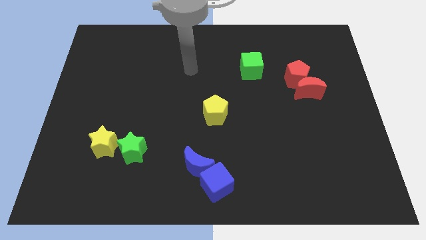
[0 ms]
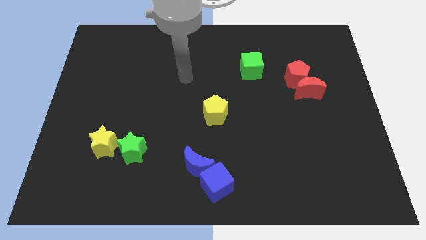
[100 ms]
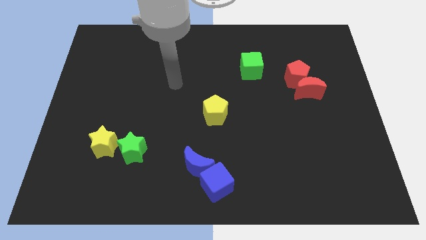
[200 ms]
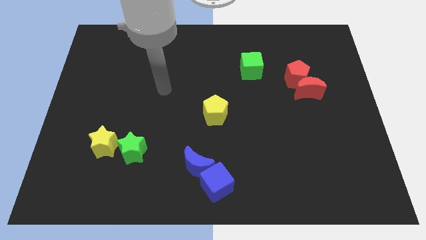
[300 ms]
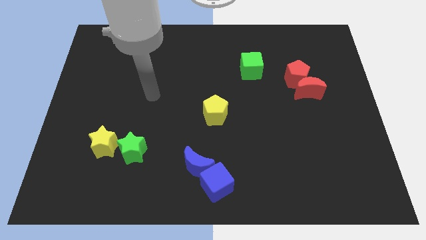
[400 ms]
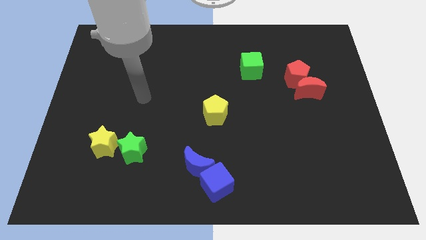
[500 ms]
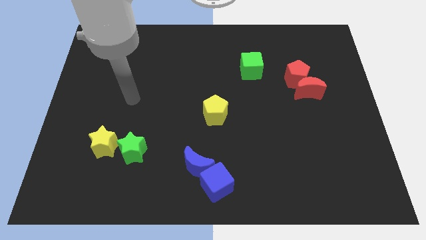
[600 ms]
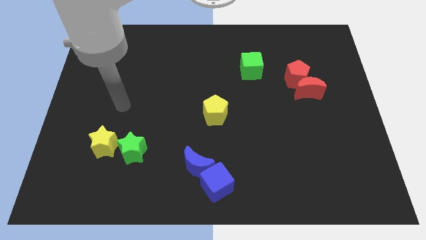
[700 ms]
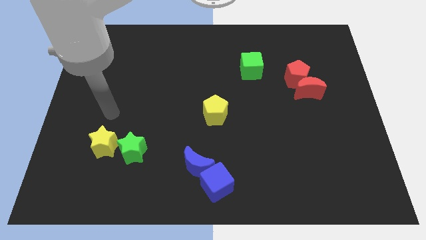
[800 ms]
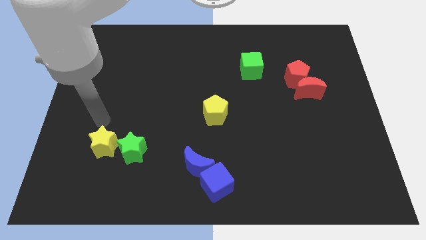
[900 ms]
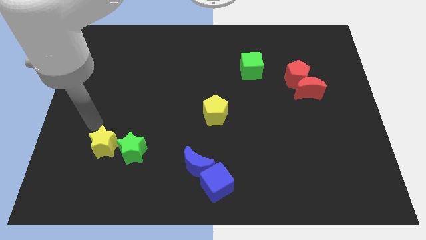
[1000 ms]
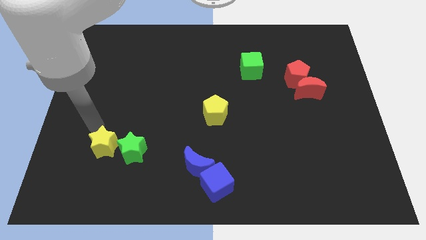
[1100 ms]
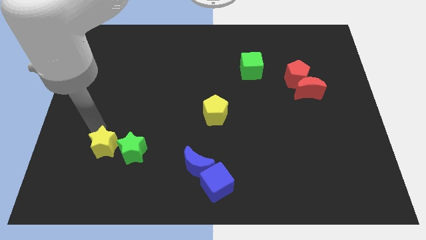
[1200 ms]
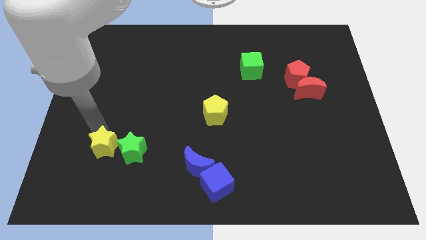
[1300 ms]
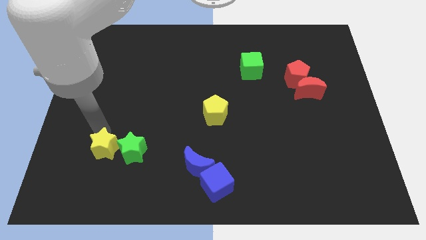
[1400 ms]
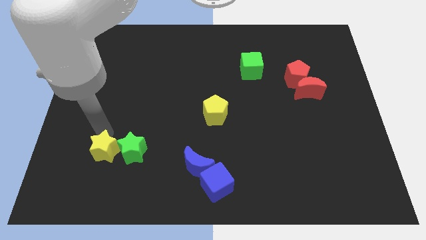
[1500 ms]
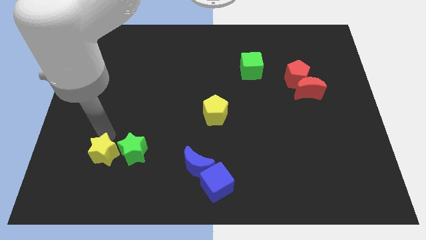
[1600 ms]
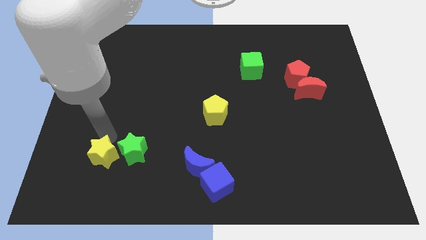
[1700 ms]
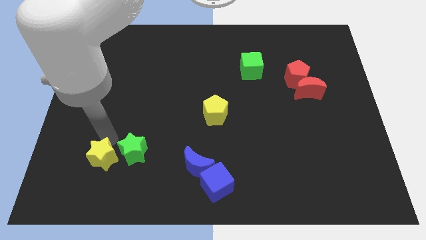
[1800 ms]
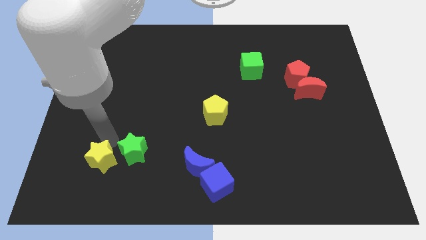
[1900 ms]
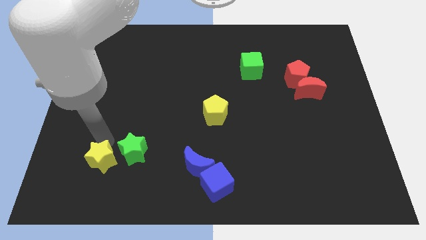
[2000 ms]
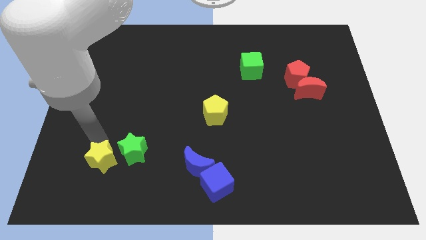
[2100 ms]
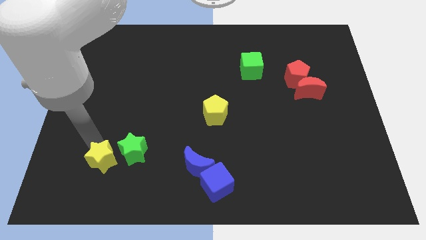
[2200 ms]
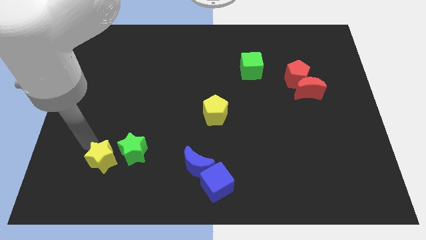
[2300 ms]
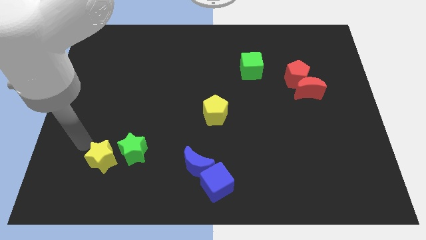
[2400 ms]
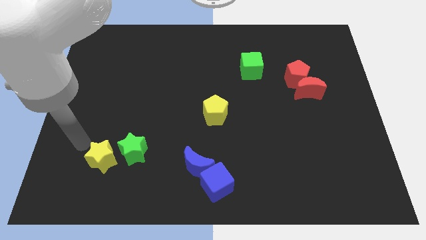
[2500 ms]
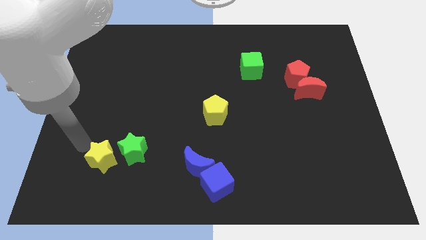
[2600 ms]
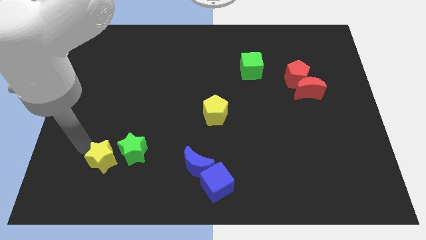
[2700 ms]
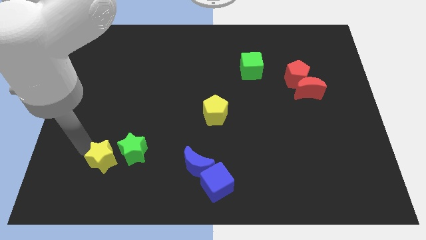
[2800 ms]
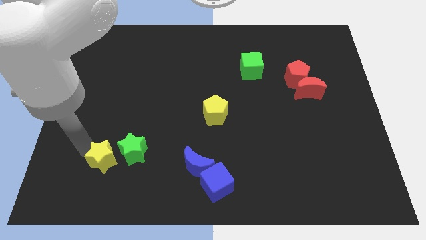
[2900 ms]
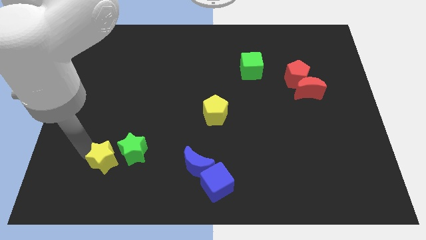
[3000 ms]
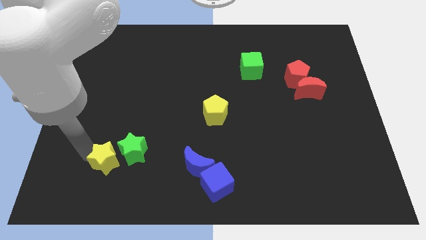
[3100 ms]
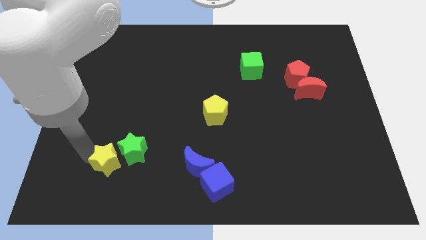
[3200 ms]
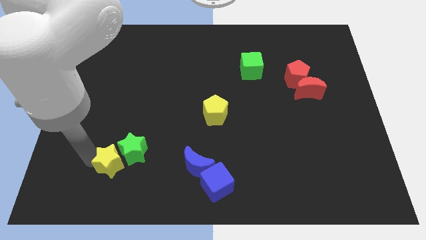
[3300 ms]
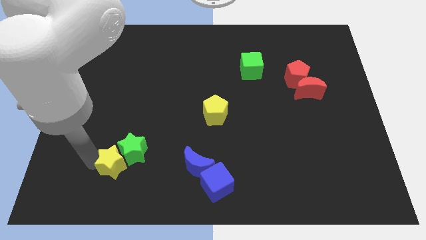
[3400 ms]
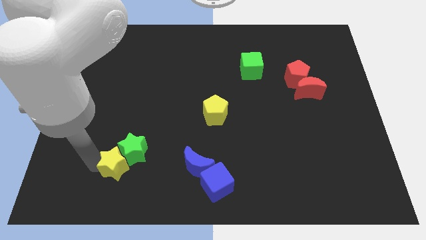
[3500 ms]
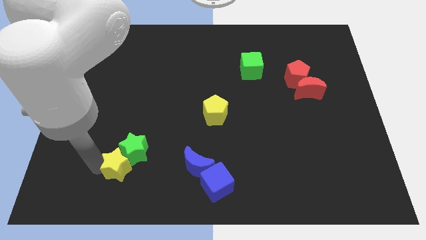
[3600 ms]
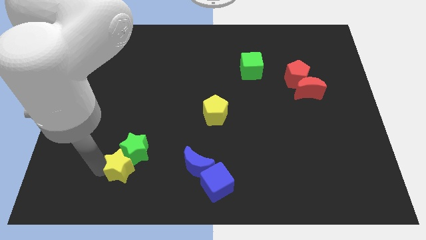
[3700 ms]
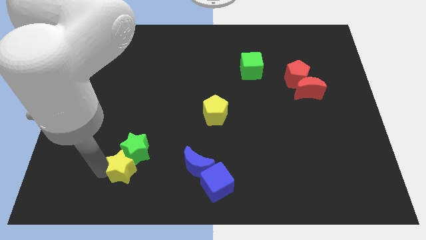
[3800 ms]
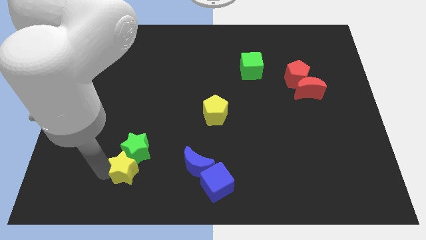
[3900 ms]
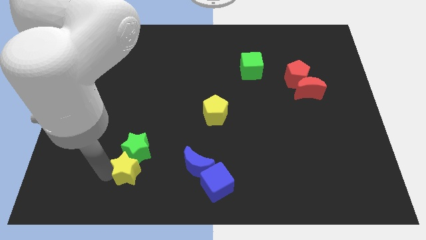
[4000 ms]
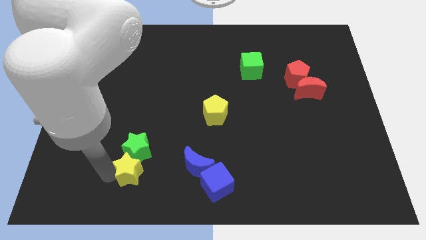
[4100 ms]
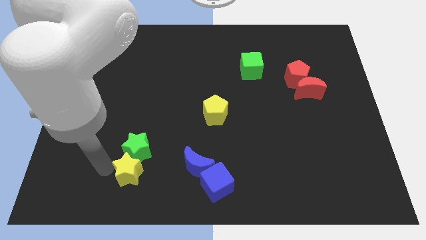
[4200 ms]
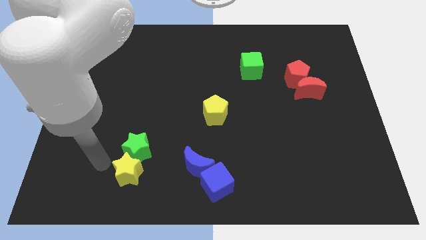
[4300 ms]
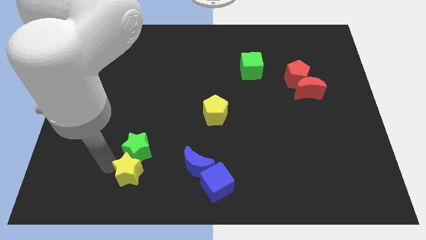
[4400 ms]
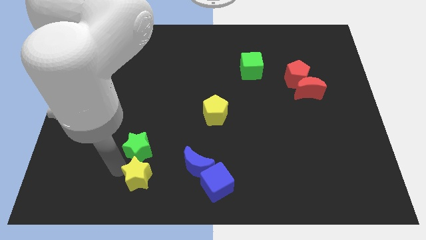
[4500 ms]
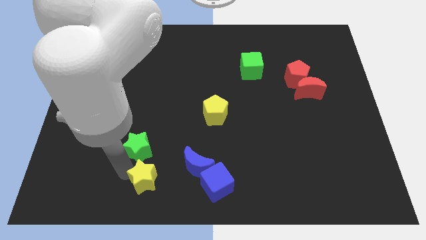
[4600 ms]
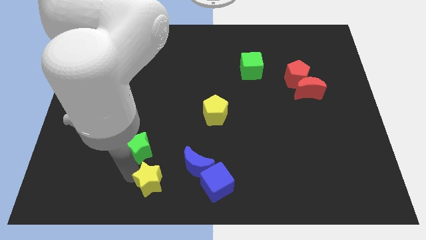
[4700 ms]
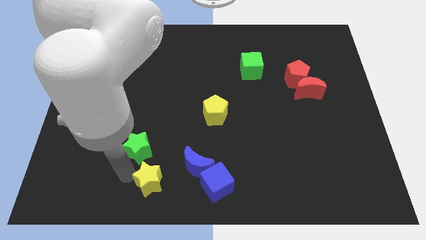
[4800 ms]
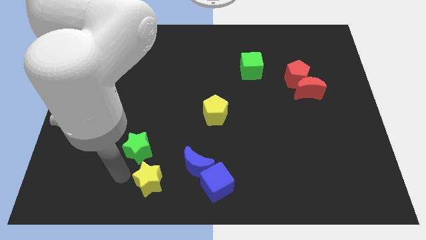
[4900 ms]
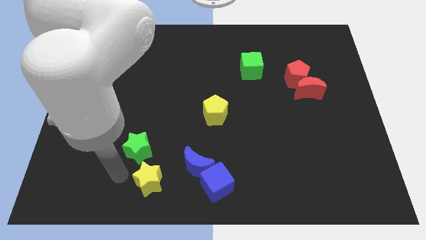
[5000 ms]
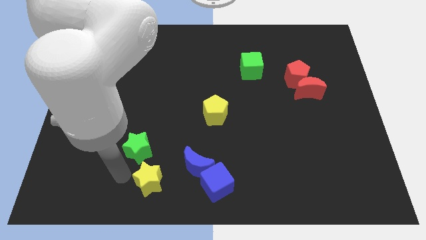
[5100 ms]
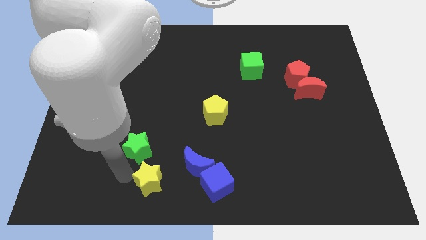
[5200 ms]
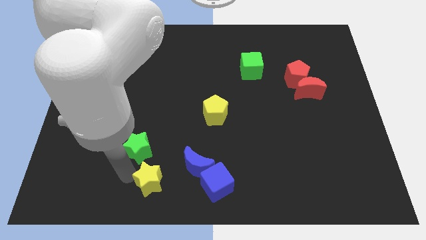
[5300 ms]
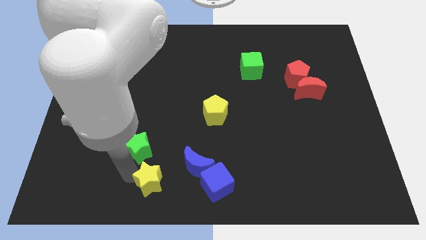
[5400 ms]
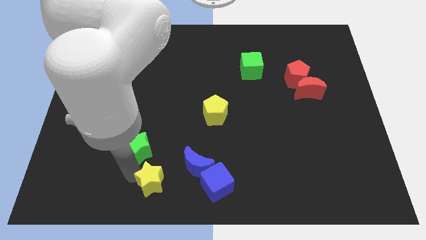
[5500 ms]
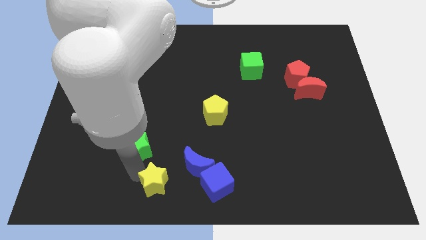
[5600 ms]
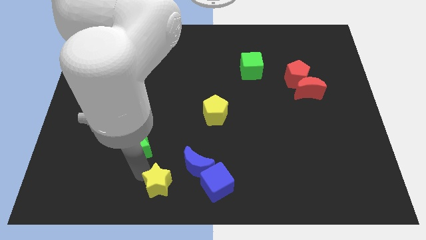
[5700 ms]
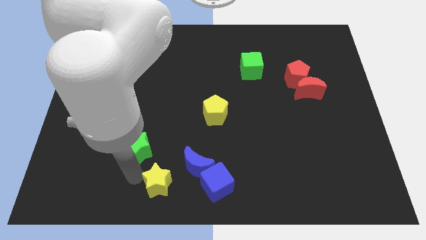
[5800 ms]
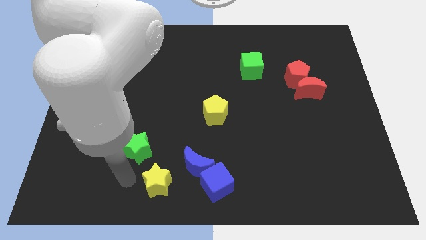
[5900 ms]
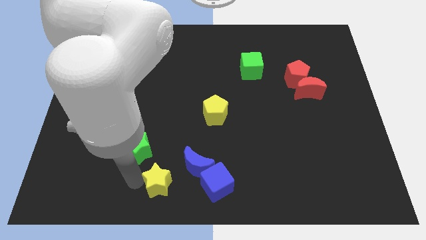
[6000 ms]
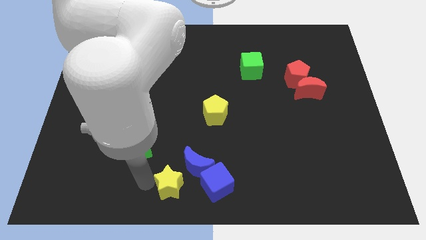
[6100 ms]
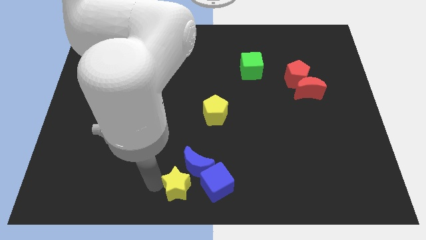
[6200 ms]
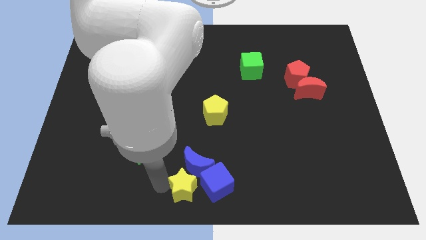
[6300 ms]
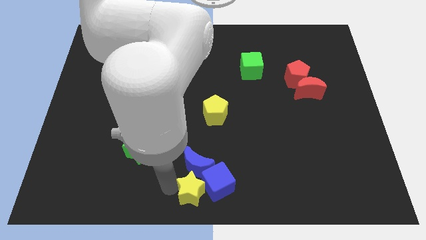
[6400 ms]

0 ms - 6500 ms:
slide the yellow star close to the blue cube
